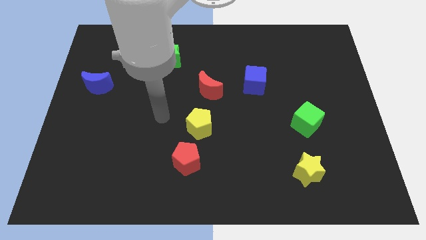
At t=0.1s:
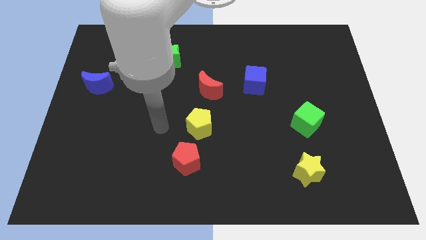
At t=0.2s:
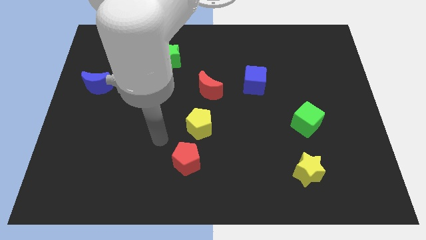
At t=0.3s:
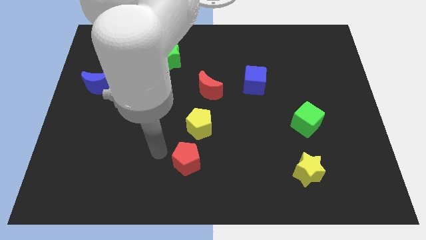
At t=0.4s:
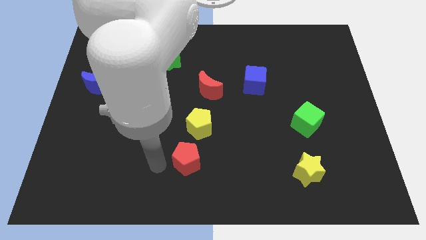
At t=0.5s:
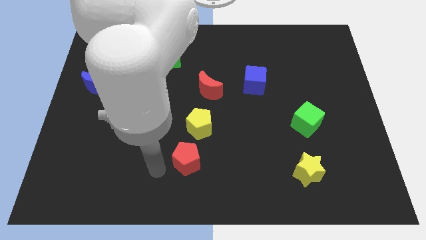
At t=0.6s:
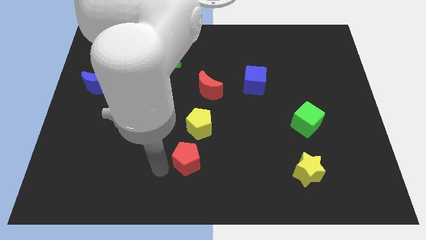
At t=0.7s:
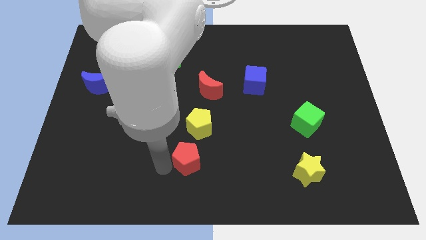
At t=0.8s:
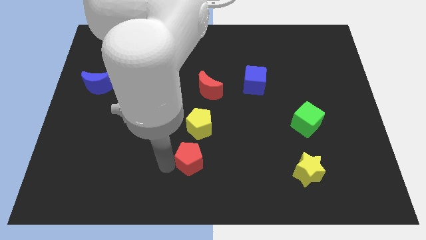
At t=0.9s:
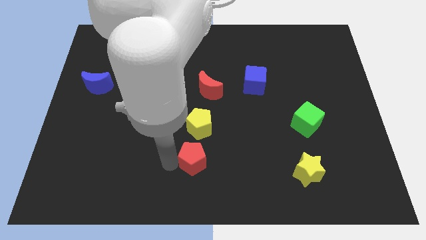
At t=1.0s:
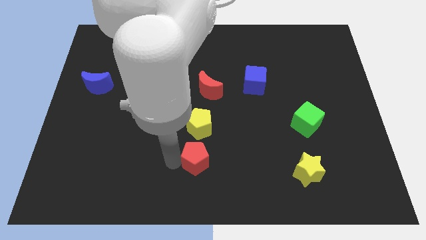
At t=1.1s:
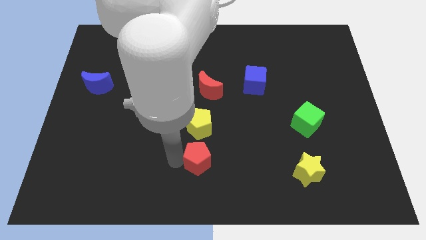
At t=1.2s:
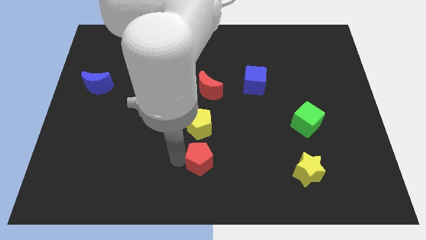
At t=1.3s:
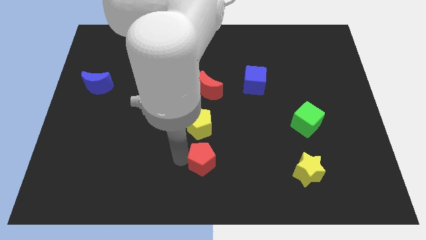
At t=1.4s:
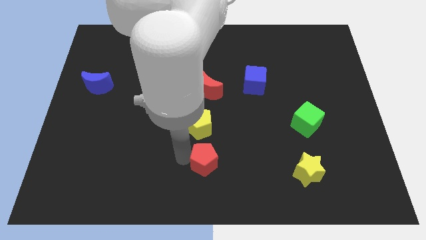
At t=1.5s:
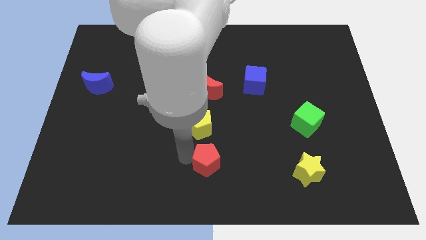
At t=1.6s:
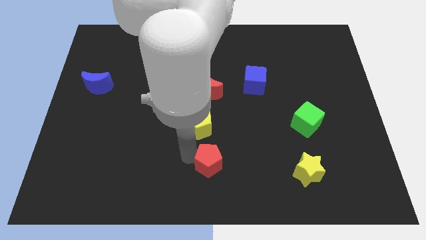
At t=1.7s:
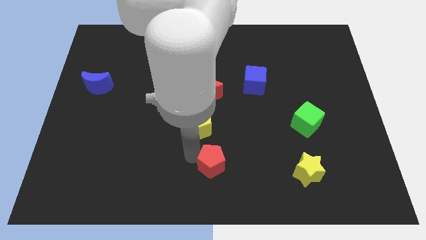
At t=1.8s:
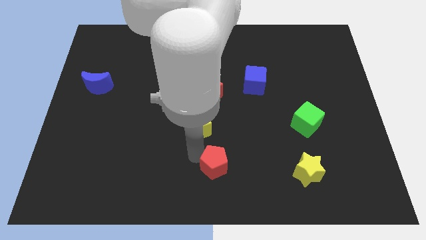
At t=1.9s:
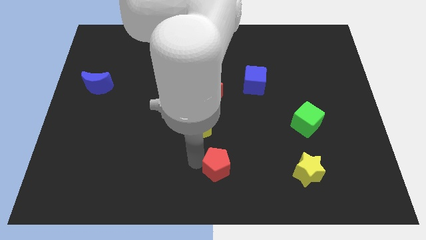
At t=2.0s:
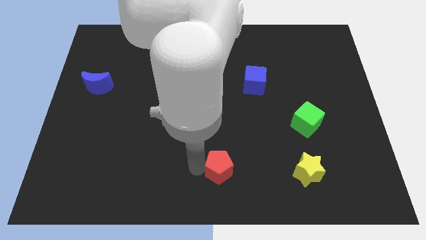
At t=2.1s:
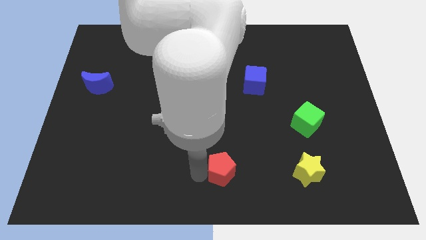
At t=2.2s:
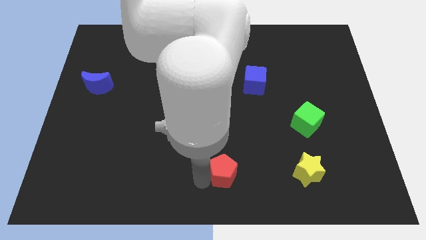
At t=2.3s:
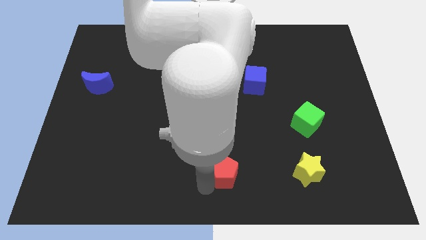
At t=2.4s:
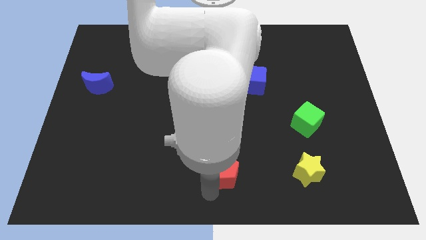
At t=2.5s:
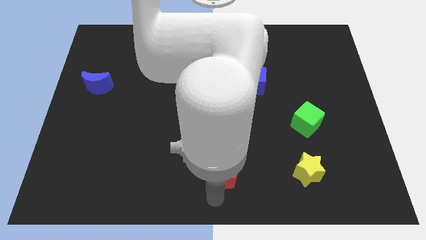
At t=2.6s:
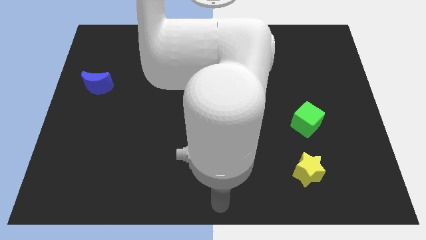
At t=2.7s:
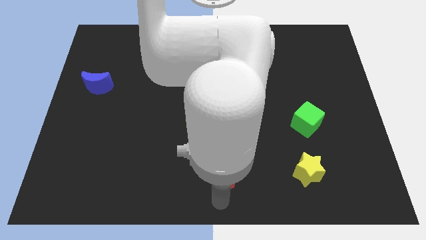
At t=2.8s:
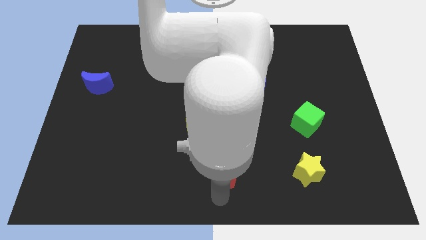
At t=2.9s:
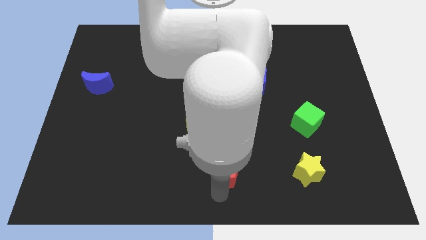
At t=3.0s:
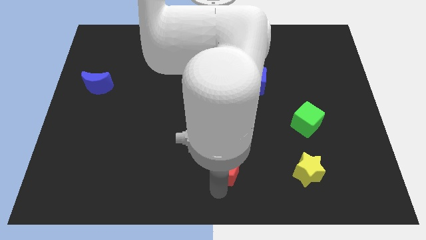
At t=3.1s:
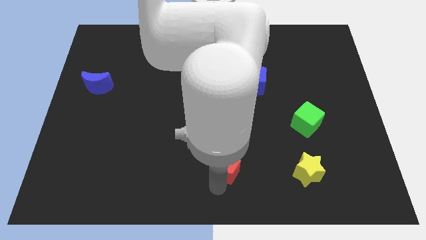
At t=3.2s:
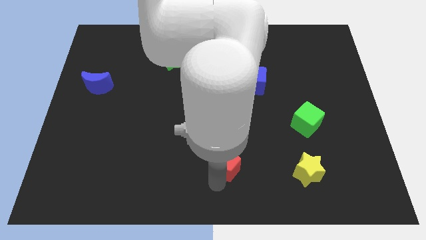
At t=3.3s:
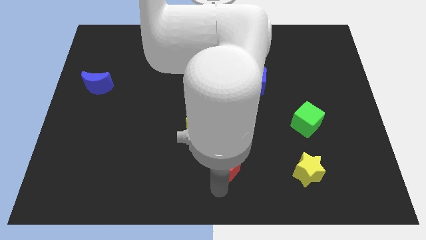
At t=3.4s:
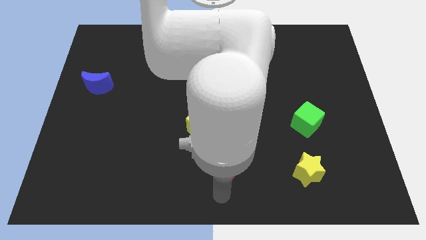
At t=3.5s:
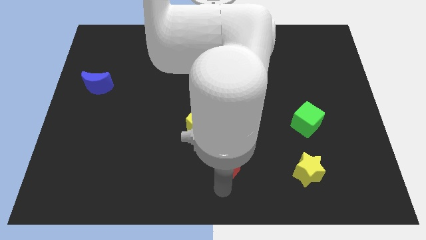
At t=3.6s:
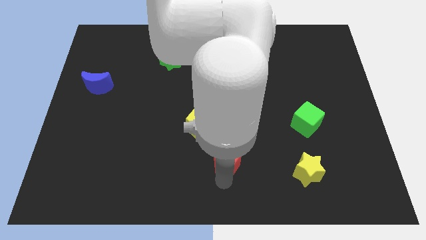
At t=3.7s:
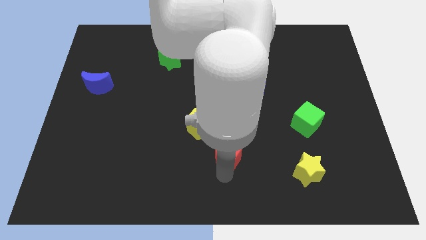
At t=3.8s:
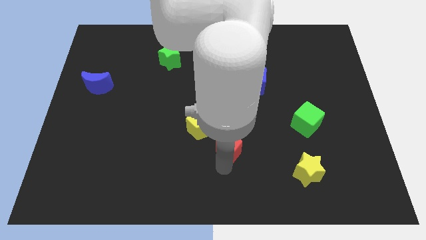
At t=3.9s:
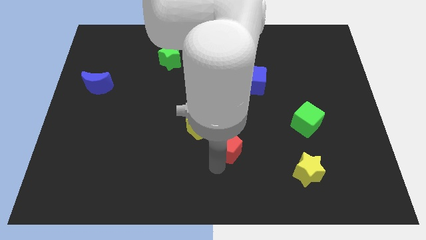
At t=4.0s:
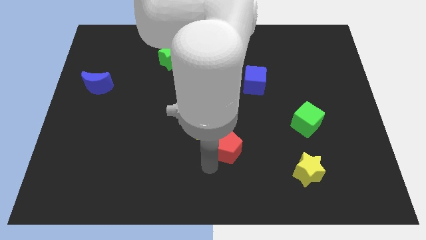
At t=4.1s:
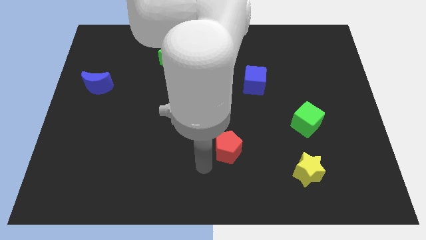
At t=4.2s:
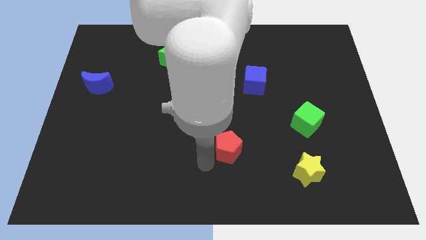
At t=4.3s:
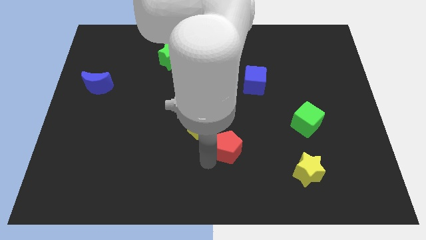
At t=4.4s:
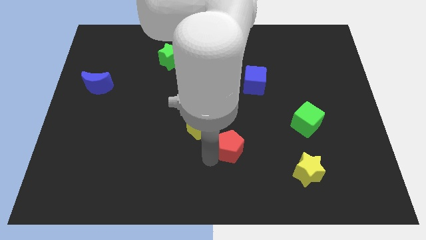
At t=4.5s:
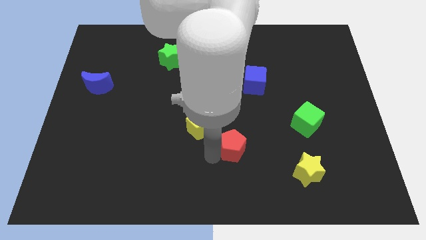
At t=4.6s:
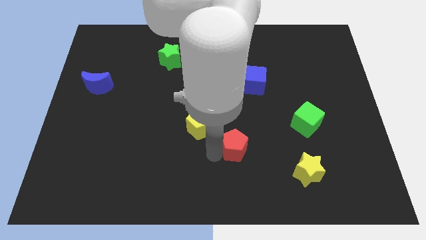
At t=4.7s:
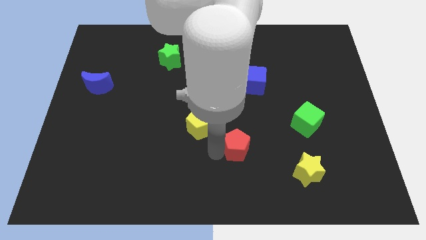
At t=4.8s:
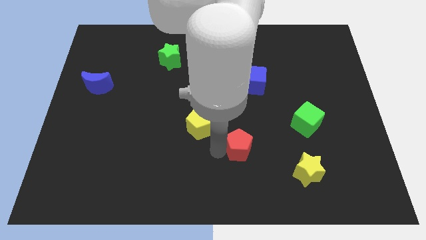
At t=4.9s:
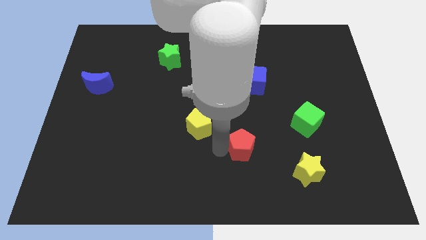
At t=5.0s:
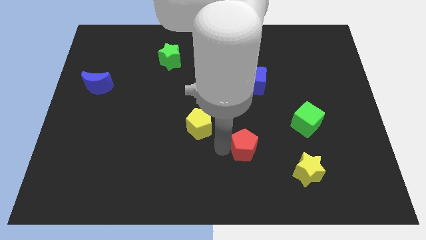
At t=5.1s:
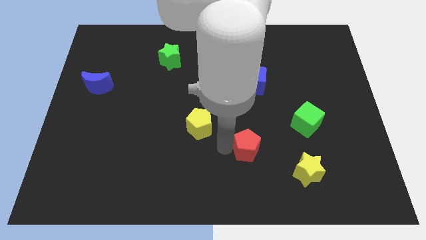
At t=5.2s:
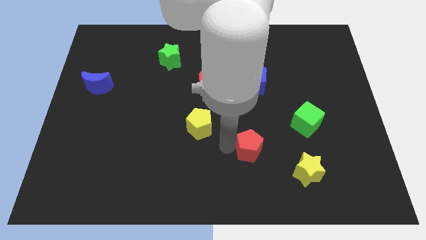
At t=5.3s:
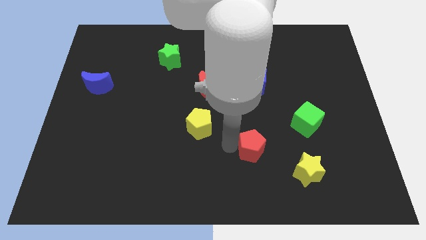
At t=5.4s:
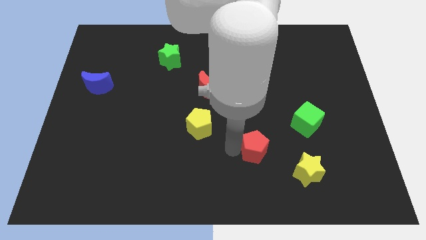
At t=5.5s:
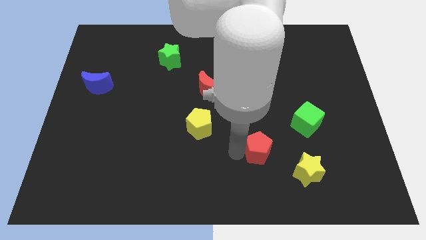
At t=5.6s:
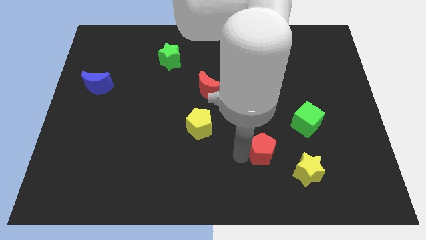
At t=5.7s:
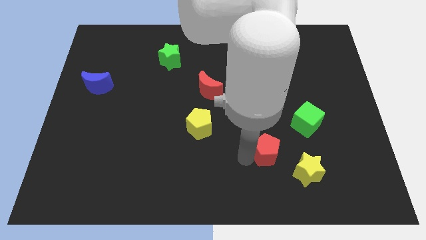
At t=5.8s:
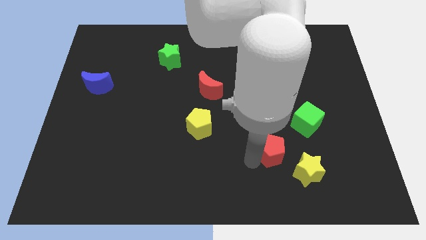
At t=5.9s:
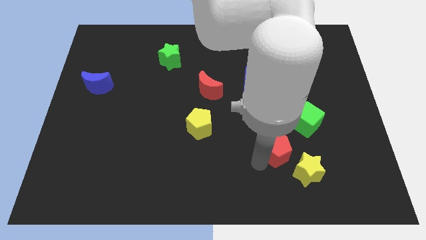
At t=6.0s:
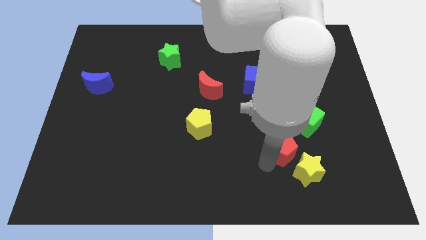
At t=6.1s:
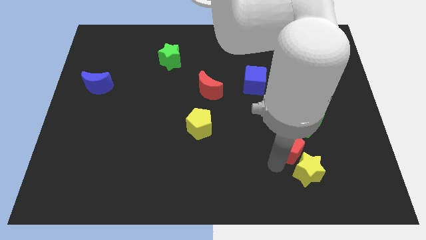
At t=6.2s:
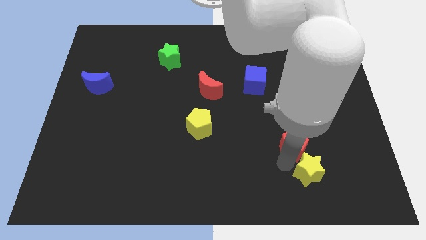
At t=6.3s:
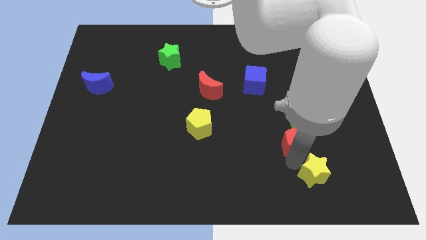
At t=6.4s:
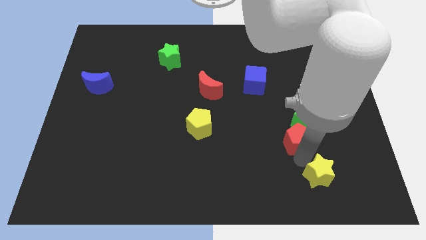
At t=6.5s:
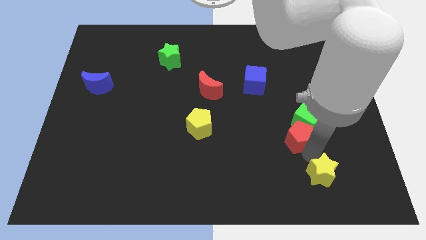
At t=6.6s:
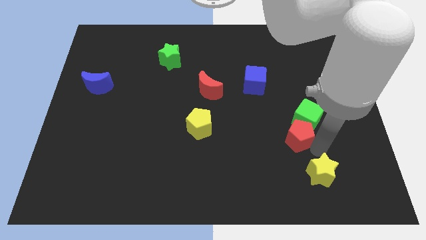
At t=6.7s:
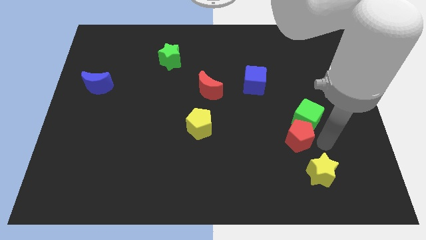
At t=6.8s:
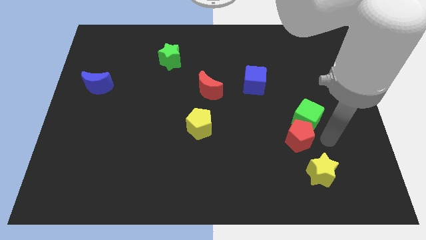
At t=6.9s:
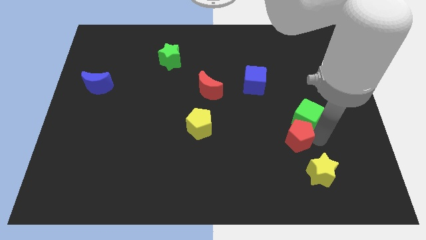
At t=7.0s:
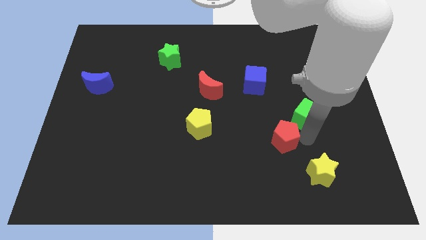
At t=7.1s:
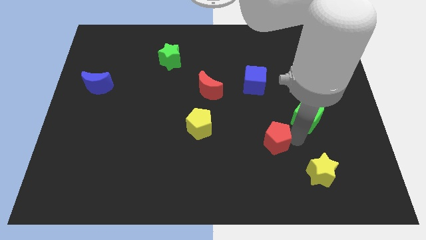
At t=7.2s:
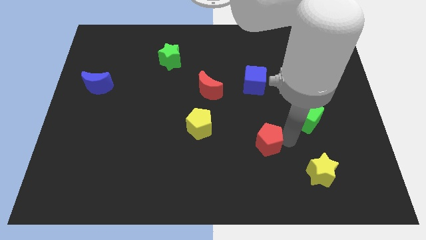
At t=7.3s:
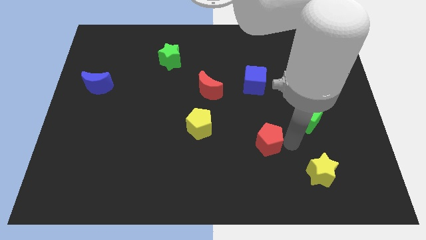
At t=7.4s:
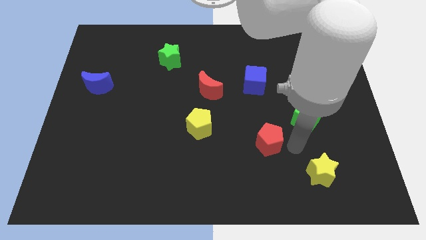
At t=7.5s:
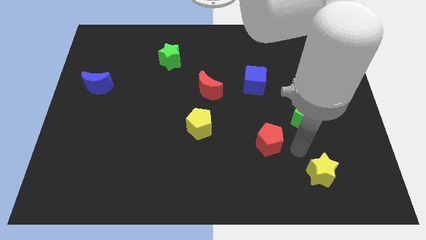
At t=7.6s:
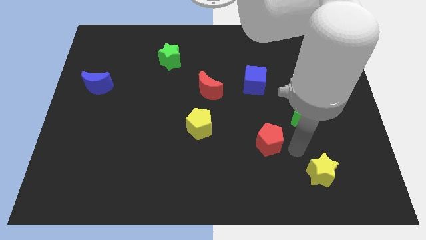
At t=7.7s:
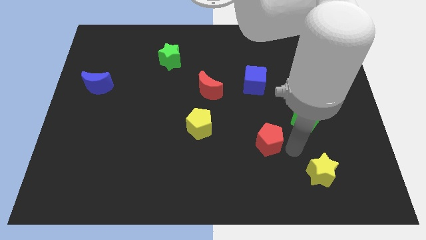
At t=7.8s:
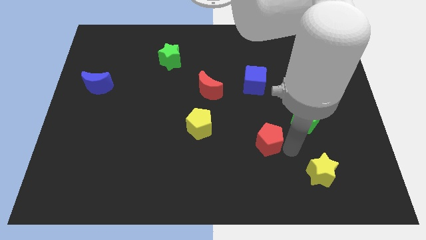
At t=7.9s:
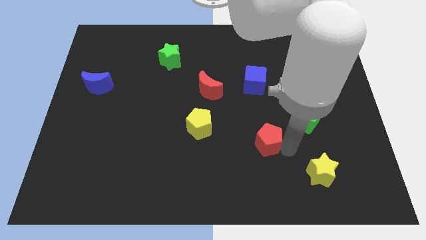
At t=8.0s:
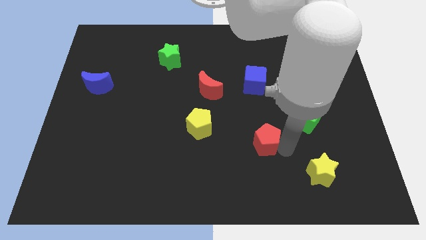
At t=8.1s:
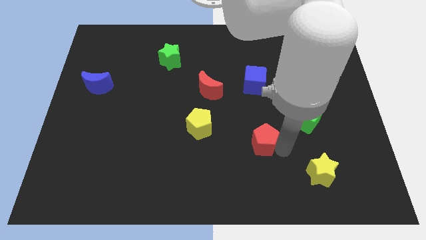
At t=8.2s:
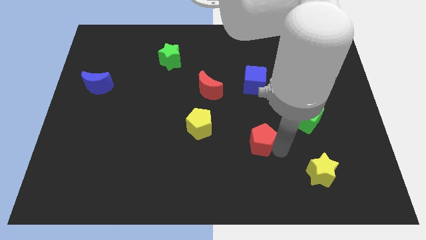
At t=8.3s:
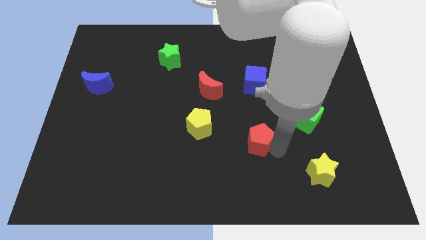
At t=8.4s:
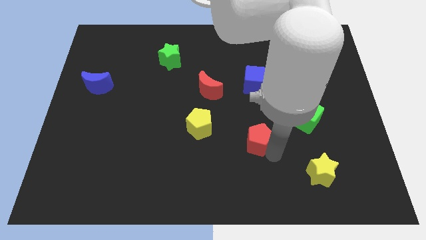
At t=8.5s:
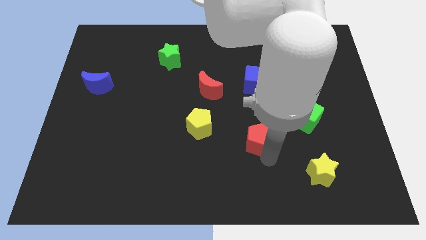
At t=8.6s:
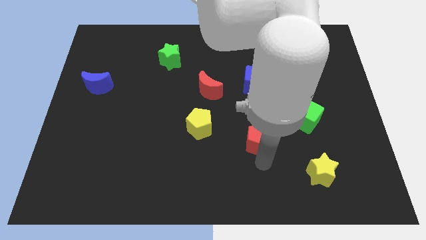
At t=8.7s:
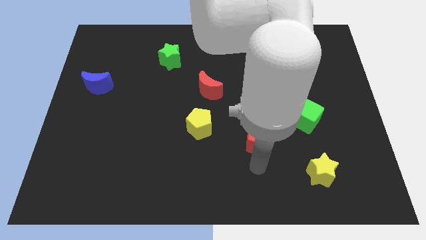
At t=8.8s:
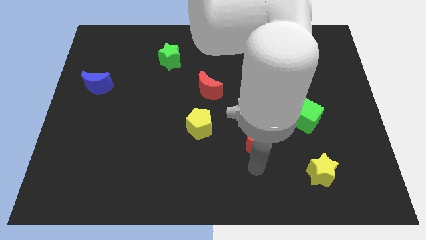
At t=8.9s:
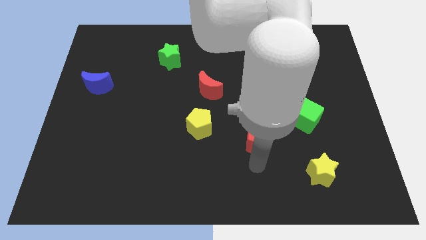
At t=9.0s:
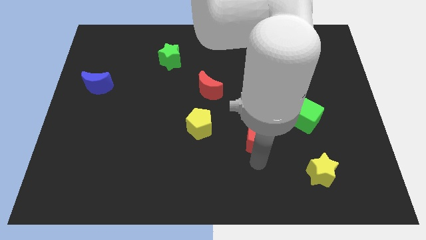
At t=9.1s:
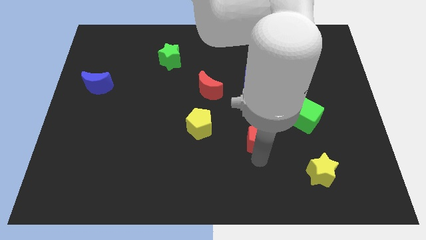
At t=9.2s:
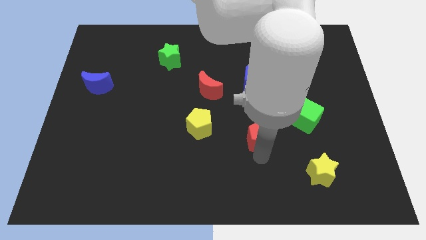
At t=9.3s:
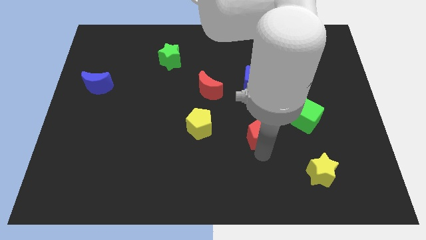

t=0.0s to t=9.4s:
move the red pentagon to the left of the green cube
